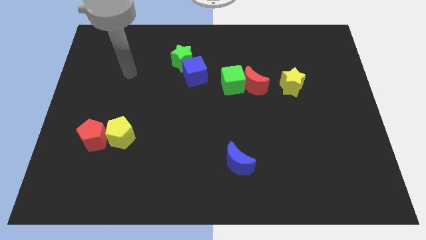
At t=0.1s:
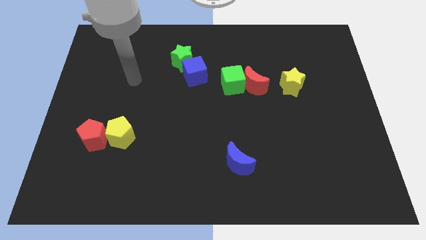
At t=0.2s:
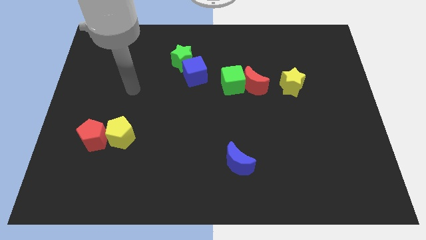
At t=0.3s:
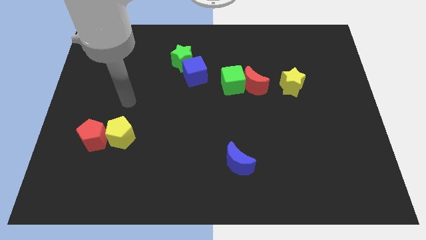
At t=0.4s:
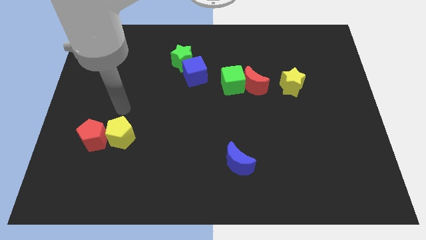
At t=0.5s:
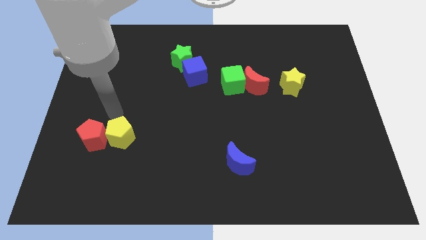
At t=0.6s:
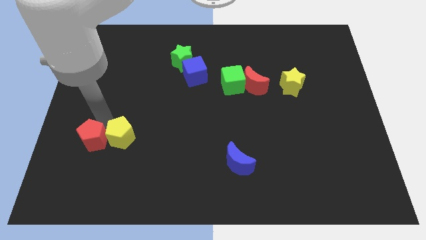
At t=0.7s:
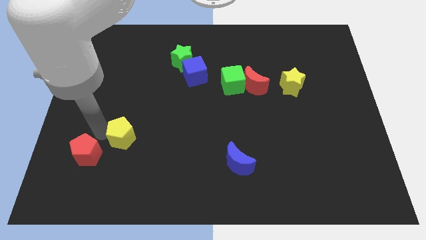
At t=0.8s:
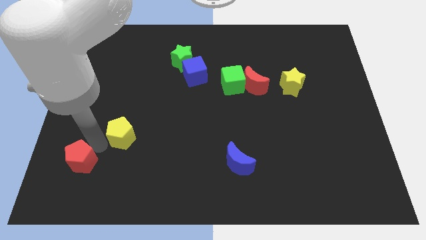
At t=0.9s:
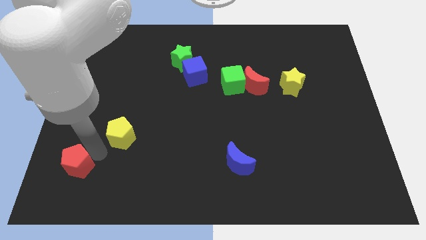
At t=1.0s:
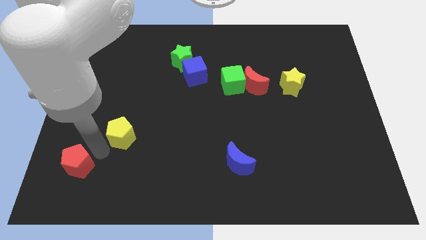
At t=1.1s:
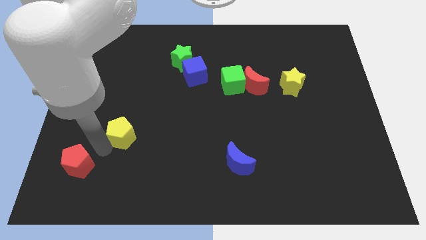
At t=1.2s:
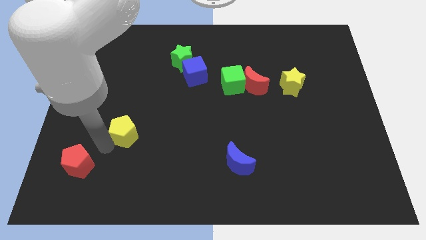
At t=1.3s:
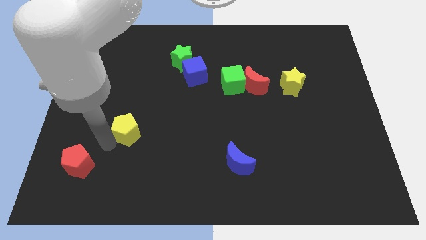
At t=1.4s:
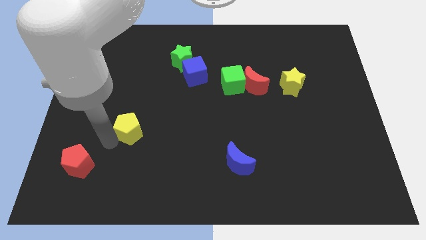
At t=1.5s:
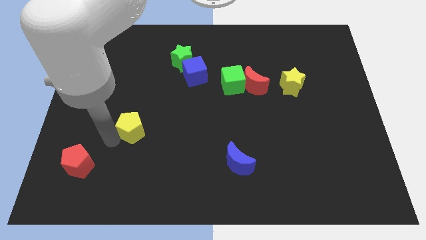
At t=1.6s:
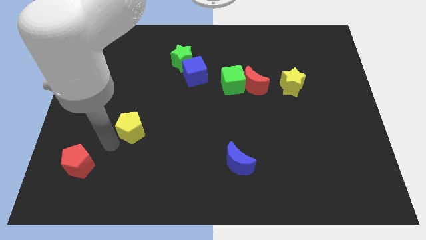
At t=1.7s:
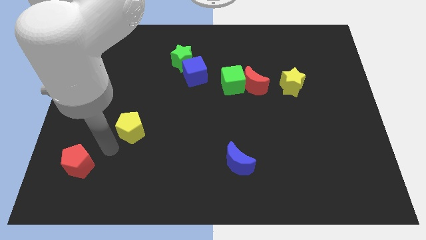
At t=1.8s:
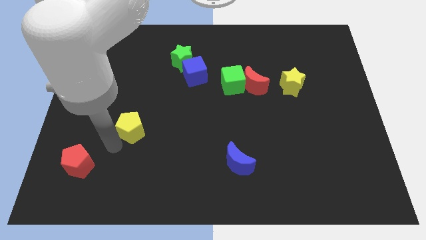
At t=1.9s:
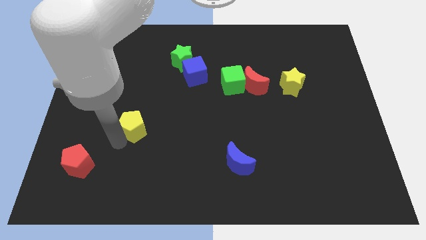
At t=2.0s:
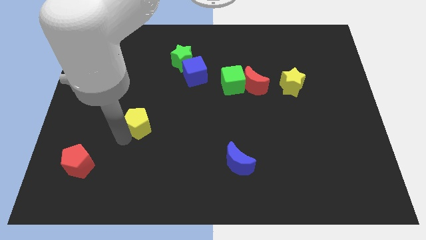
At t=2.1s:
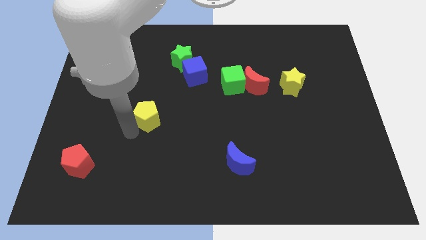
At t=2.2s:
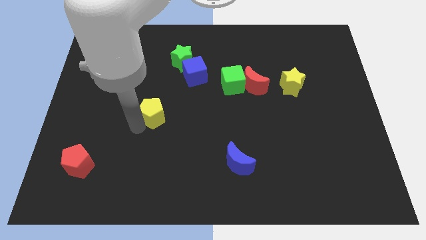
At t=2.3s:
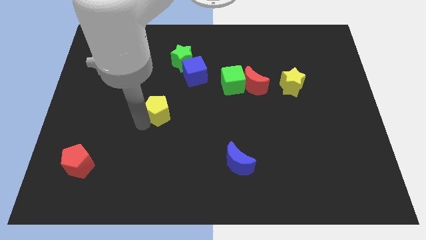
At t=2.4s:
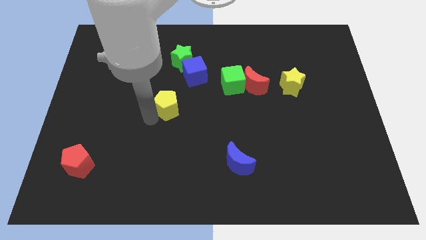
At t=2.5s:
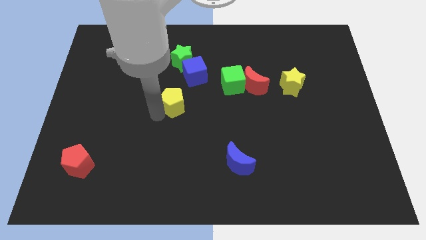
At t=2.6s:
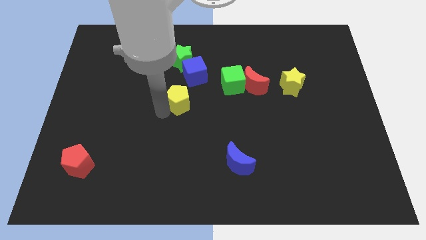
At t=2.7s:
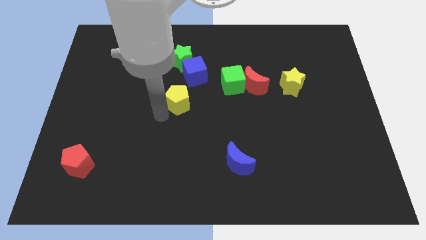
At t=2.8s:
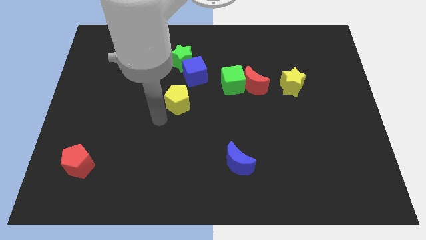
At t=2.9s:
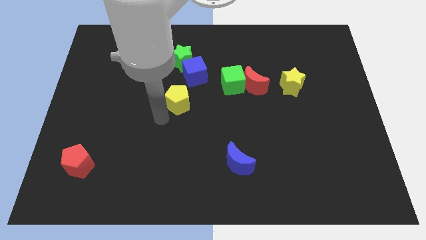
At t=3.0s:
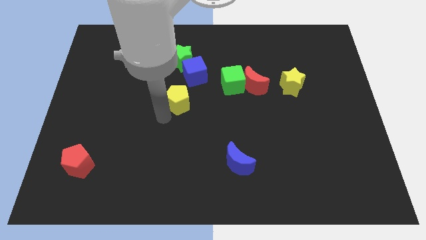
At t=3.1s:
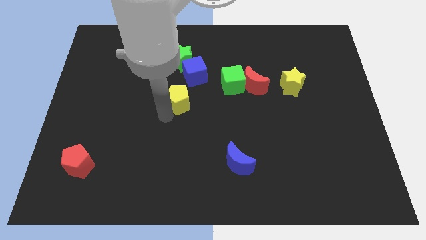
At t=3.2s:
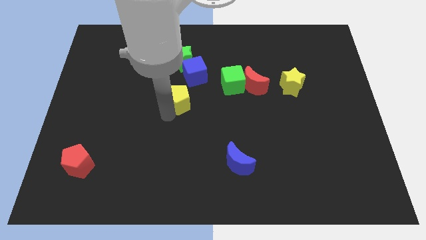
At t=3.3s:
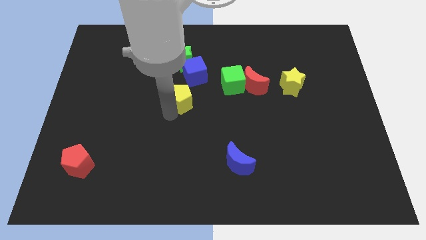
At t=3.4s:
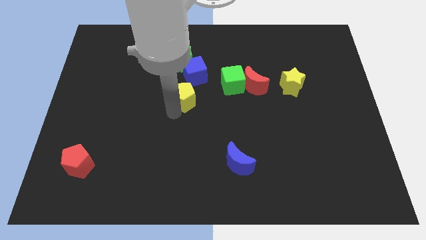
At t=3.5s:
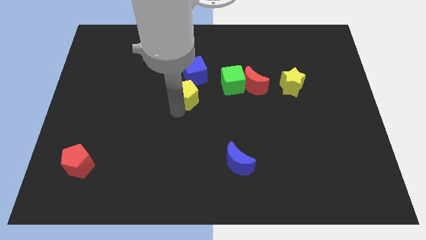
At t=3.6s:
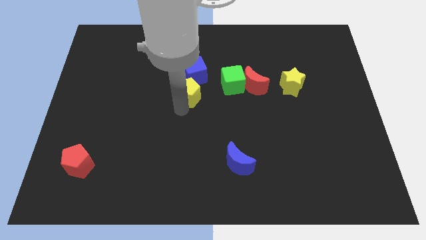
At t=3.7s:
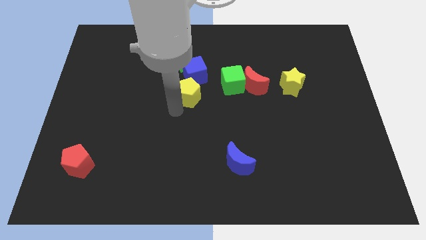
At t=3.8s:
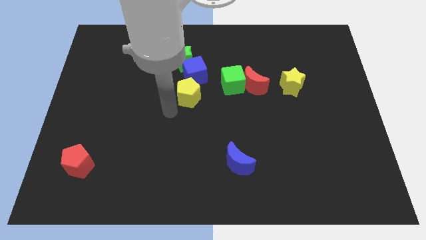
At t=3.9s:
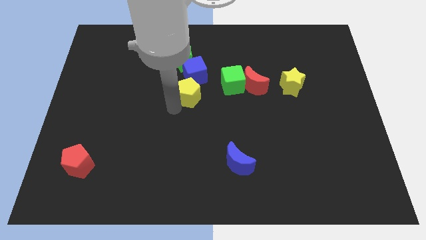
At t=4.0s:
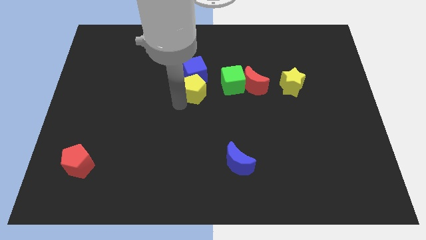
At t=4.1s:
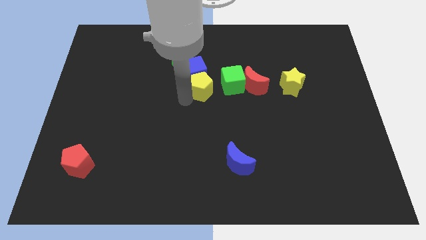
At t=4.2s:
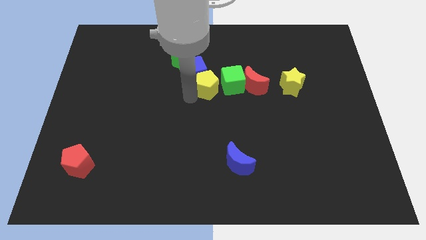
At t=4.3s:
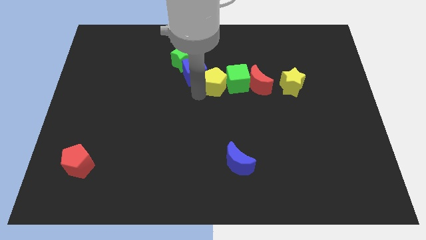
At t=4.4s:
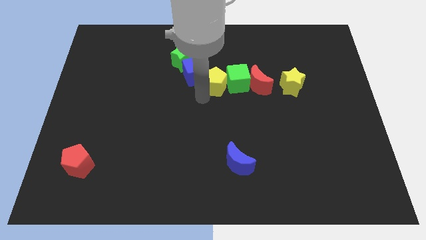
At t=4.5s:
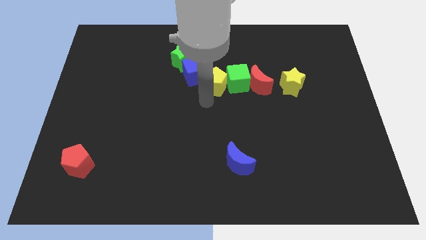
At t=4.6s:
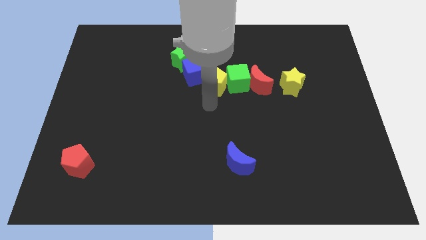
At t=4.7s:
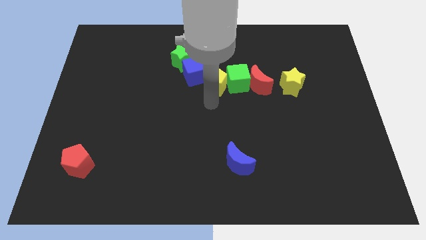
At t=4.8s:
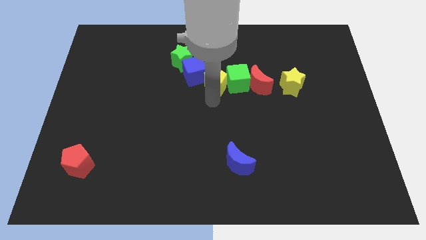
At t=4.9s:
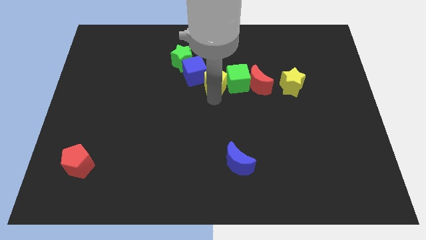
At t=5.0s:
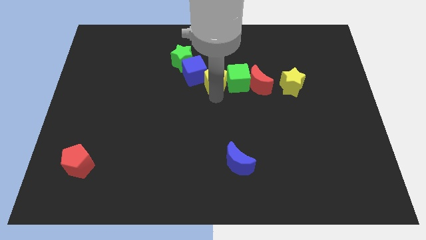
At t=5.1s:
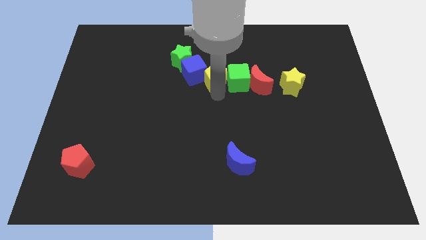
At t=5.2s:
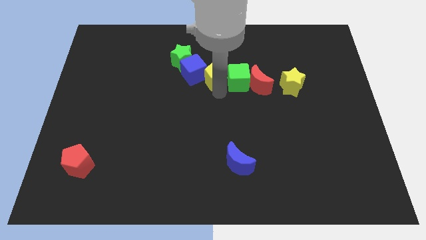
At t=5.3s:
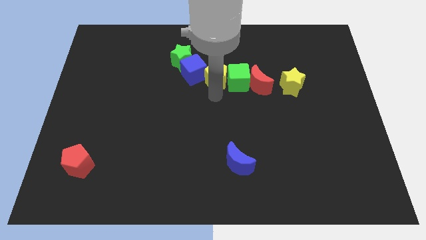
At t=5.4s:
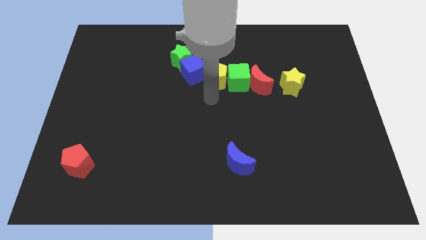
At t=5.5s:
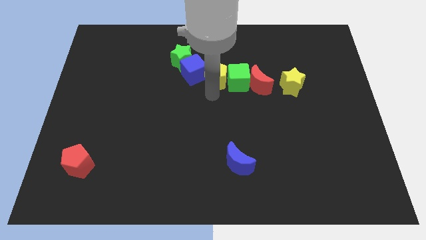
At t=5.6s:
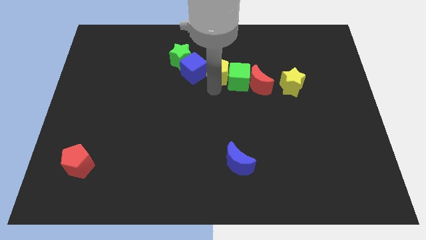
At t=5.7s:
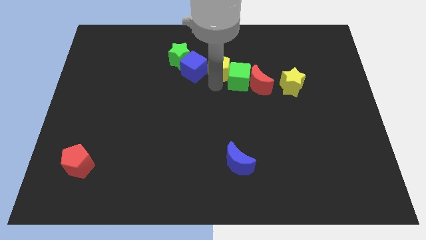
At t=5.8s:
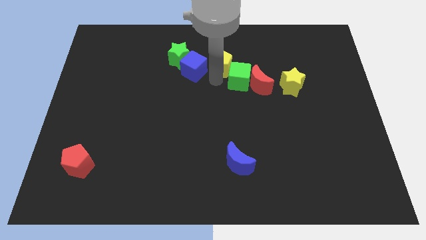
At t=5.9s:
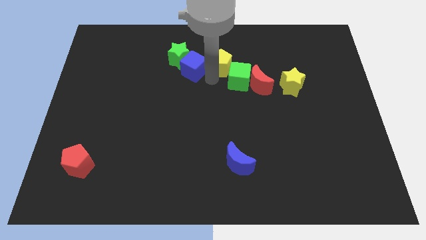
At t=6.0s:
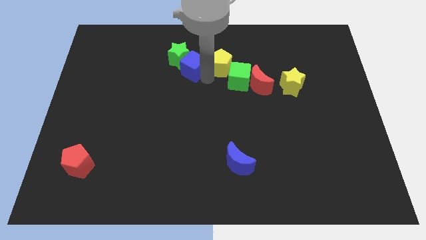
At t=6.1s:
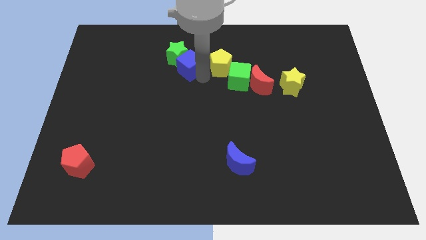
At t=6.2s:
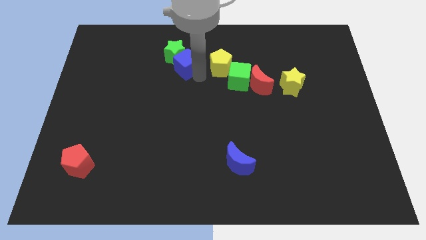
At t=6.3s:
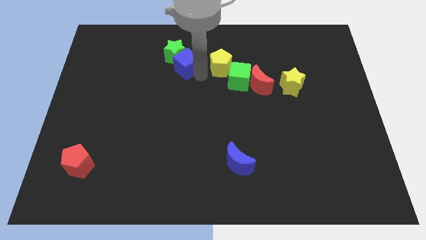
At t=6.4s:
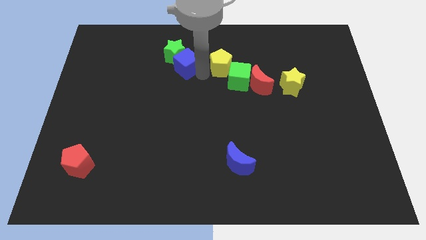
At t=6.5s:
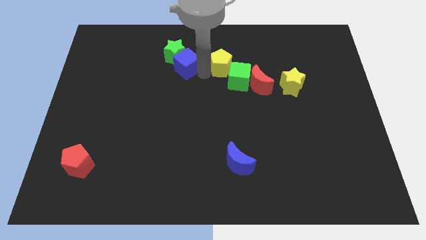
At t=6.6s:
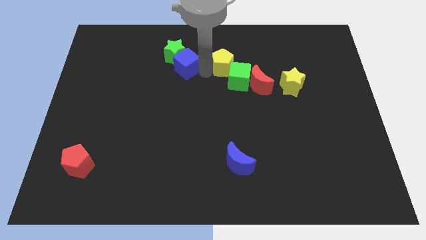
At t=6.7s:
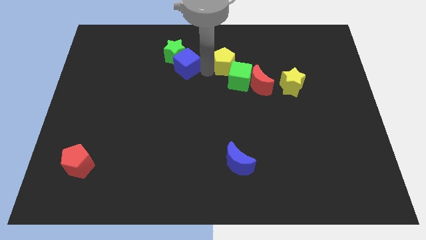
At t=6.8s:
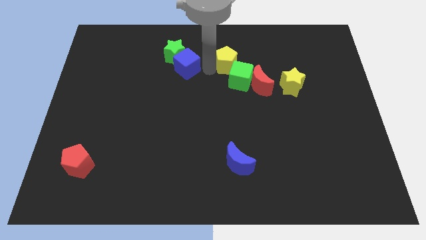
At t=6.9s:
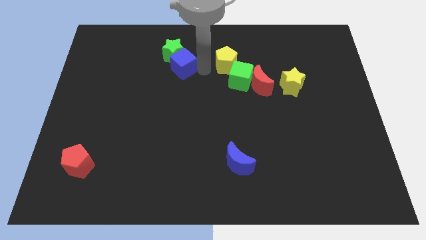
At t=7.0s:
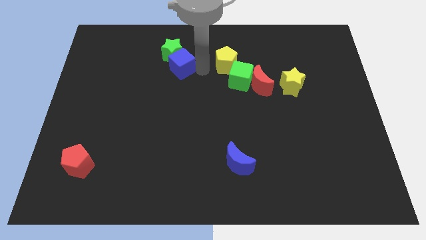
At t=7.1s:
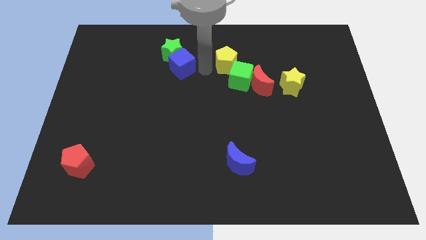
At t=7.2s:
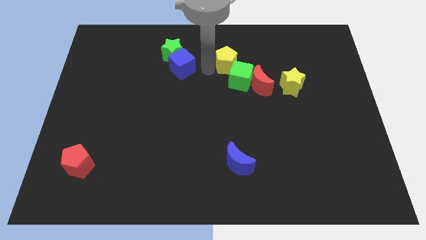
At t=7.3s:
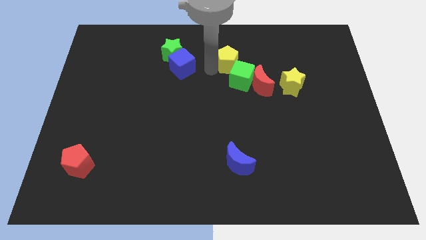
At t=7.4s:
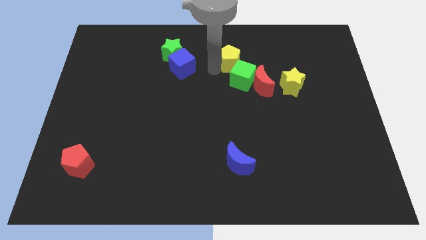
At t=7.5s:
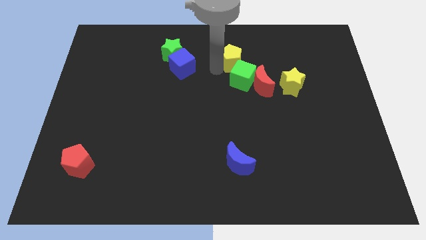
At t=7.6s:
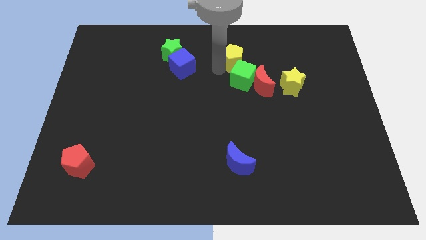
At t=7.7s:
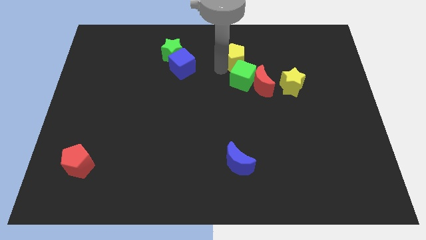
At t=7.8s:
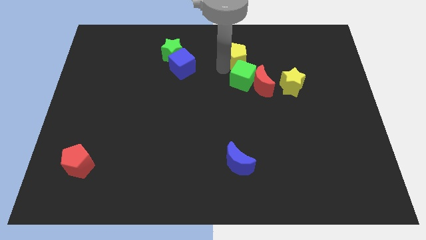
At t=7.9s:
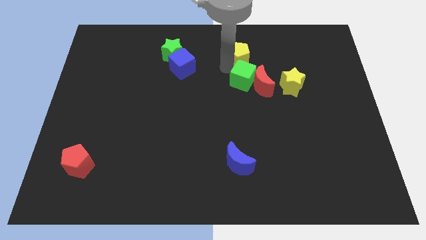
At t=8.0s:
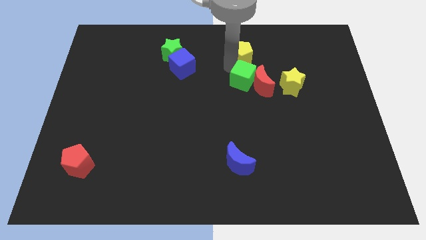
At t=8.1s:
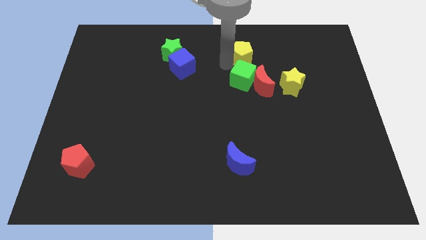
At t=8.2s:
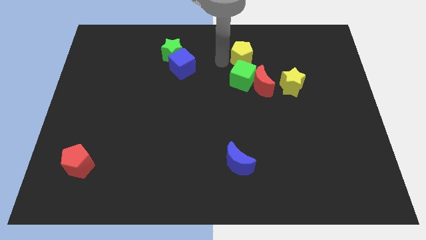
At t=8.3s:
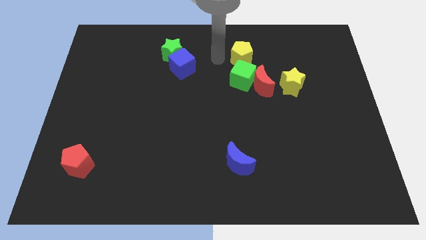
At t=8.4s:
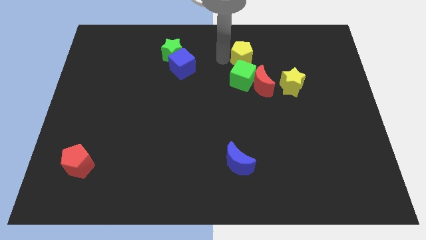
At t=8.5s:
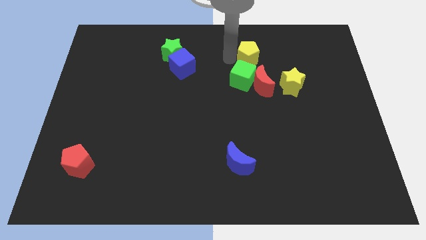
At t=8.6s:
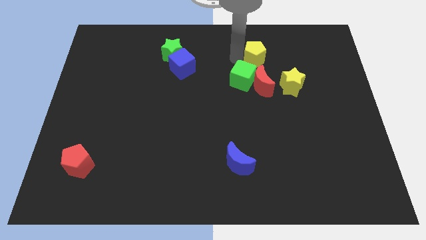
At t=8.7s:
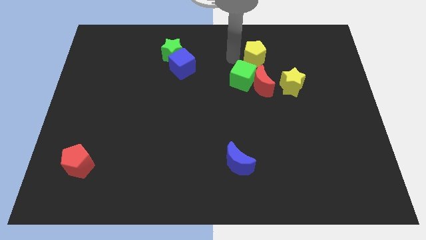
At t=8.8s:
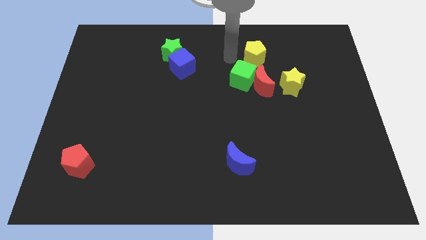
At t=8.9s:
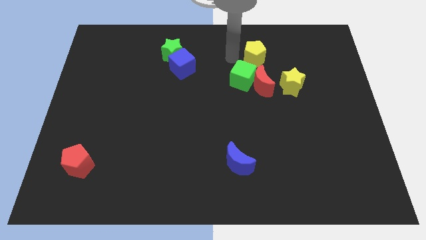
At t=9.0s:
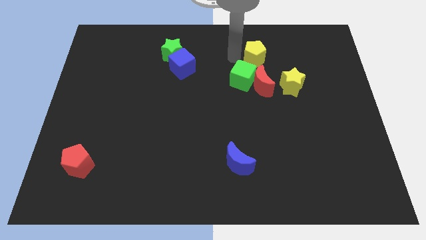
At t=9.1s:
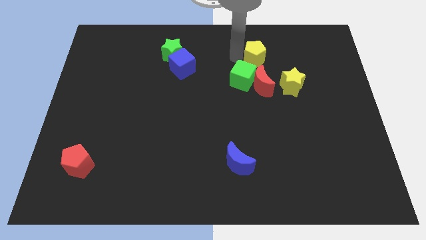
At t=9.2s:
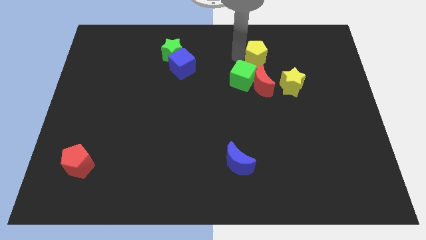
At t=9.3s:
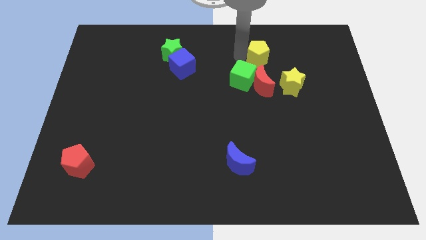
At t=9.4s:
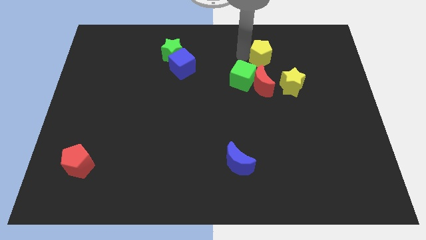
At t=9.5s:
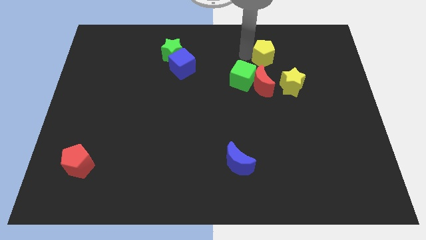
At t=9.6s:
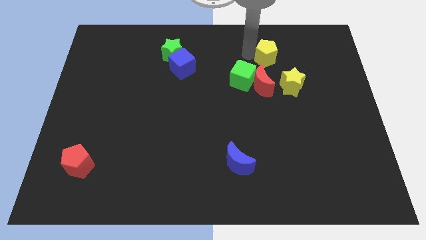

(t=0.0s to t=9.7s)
slide the yellow pentagon to the top side of the yellow star
